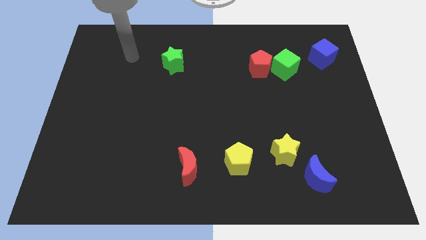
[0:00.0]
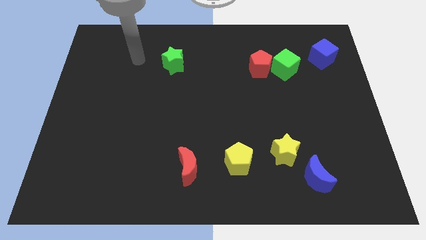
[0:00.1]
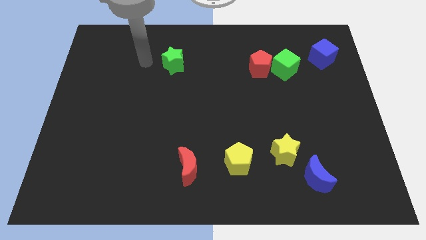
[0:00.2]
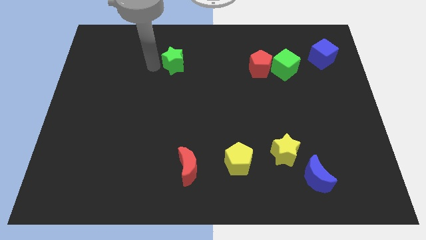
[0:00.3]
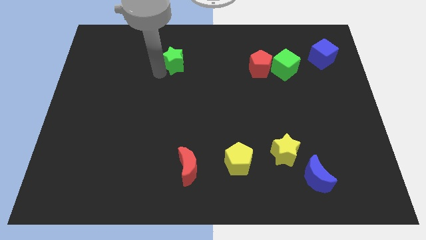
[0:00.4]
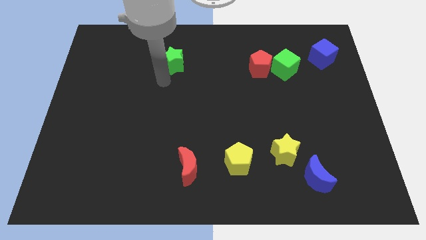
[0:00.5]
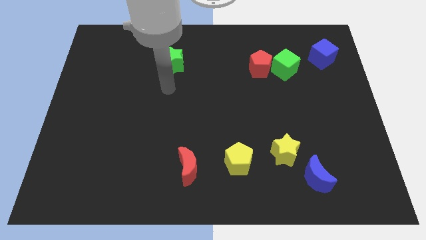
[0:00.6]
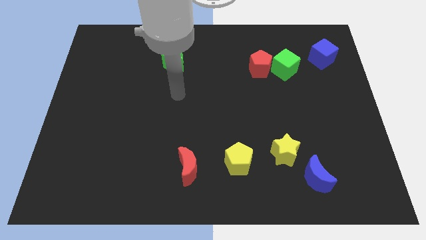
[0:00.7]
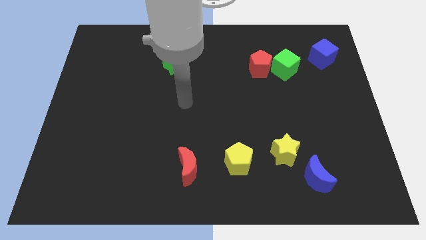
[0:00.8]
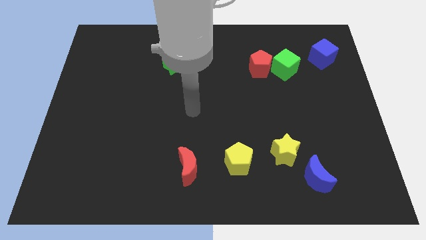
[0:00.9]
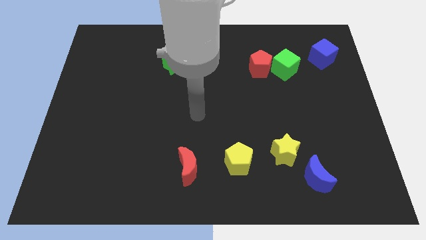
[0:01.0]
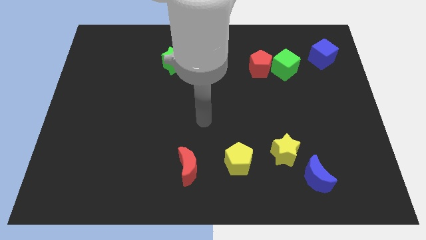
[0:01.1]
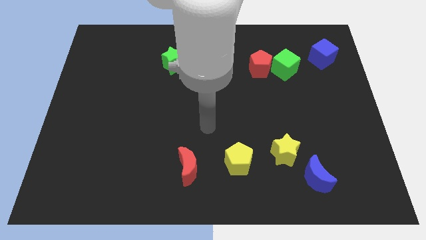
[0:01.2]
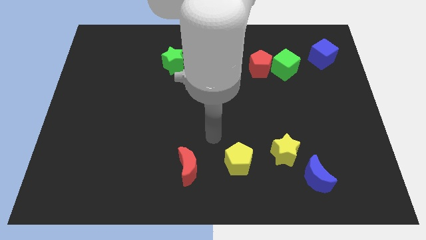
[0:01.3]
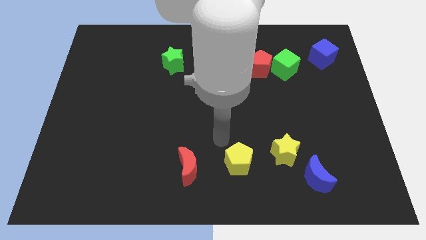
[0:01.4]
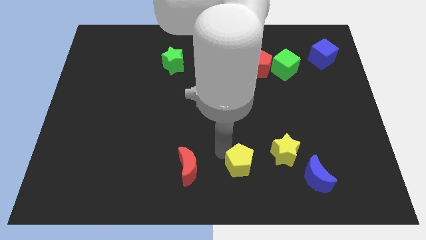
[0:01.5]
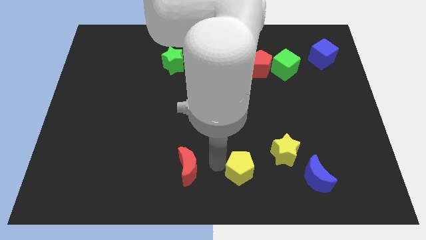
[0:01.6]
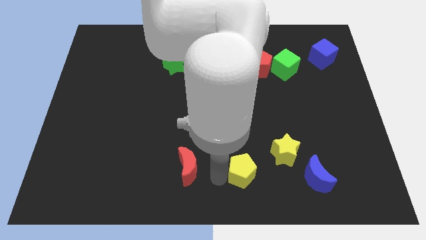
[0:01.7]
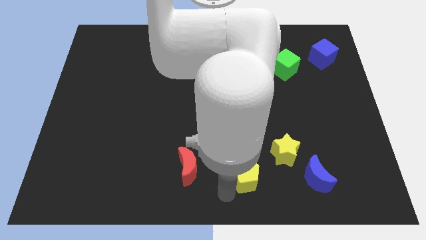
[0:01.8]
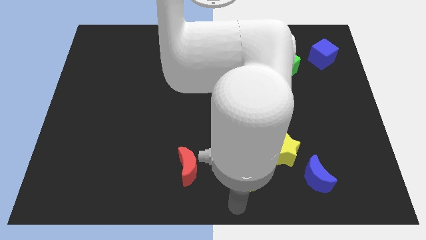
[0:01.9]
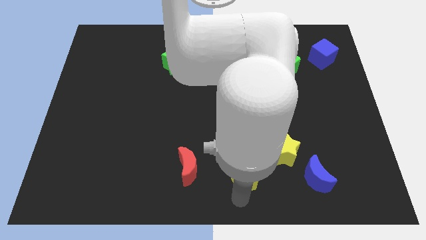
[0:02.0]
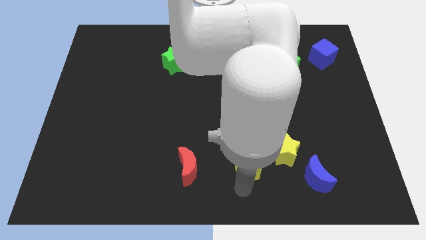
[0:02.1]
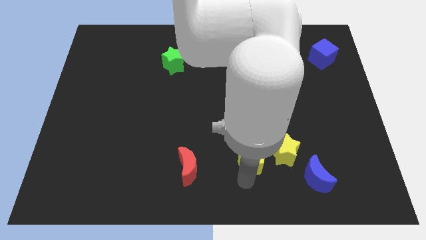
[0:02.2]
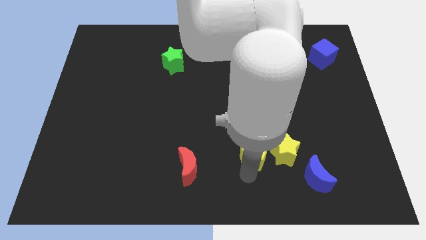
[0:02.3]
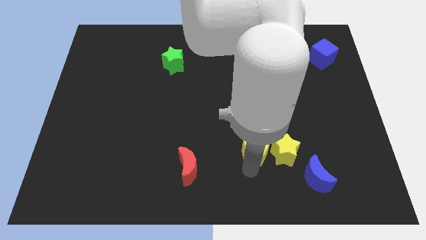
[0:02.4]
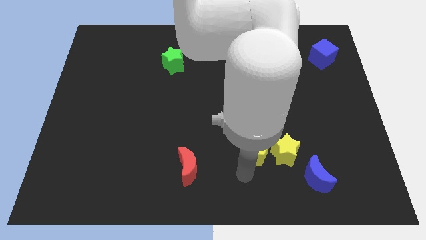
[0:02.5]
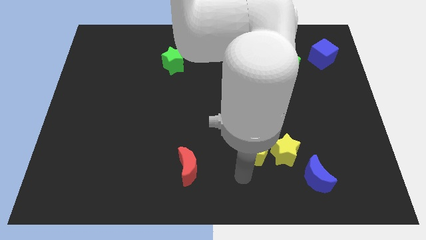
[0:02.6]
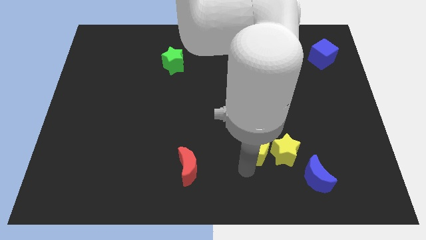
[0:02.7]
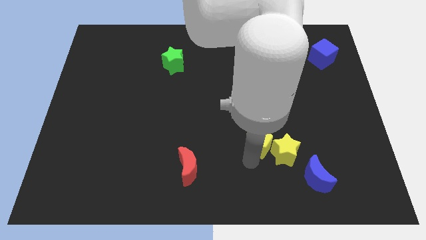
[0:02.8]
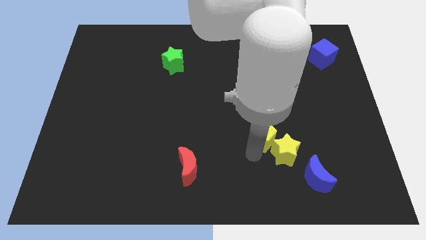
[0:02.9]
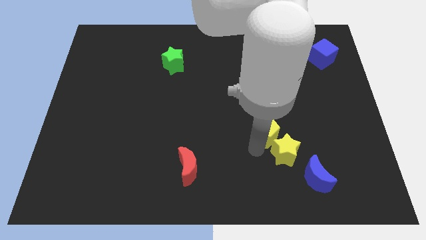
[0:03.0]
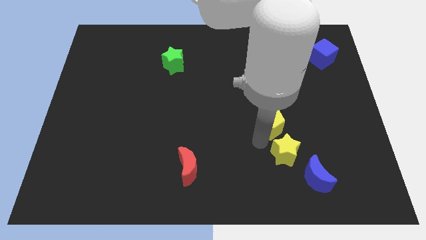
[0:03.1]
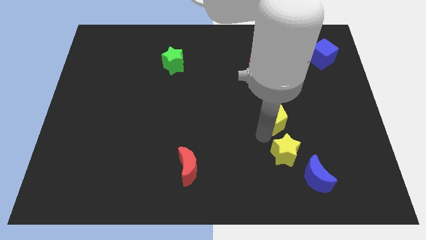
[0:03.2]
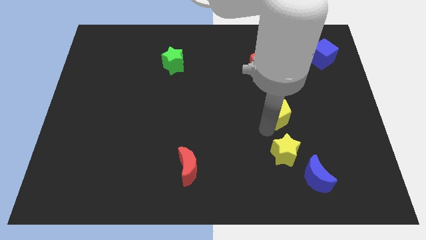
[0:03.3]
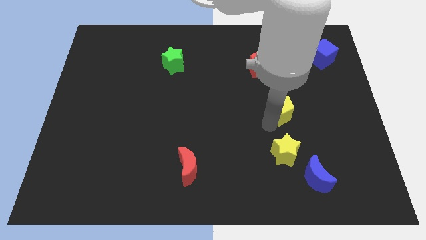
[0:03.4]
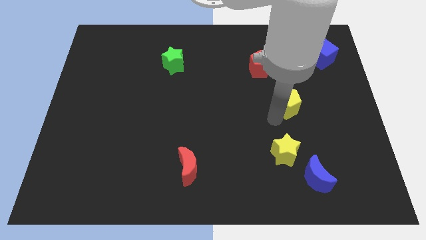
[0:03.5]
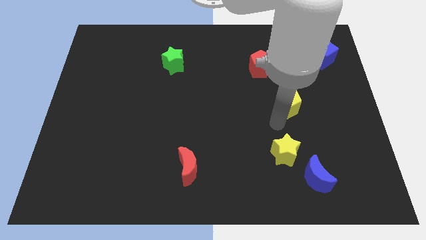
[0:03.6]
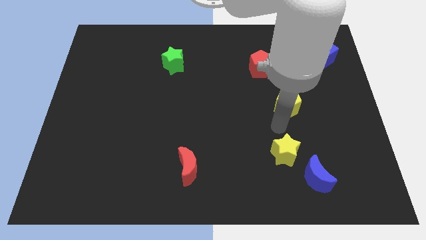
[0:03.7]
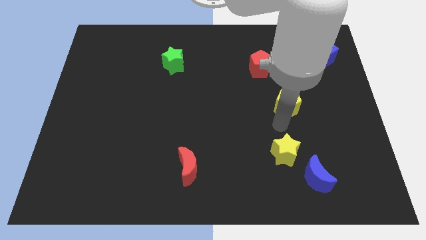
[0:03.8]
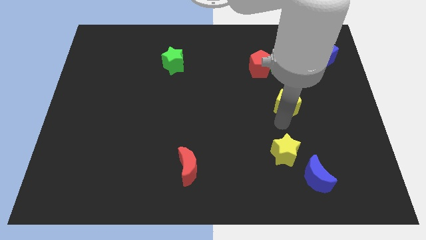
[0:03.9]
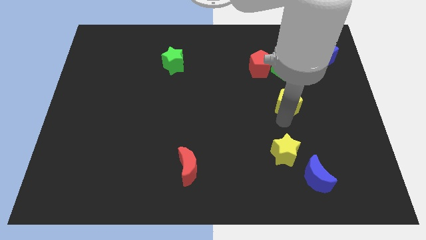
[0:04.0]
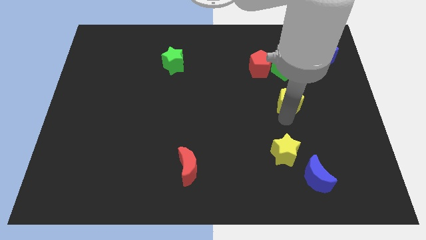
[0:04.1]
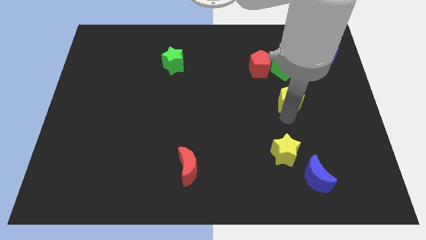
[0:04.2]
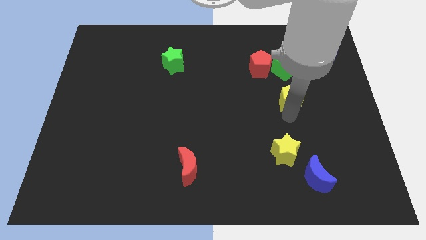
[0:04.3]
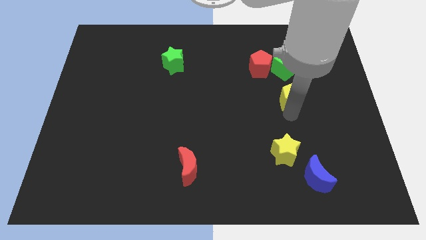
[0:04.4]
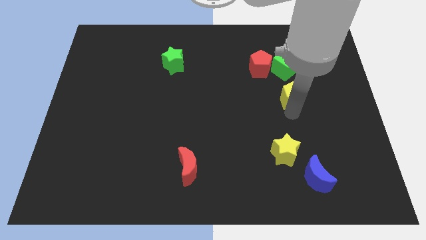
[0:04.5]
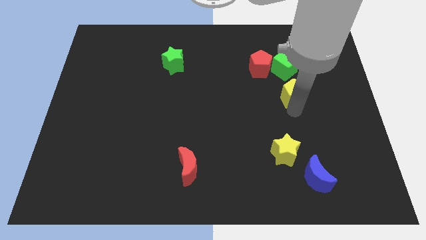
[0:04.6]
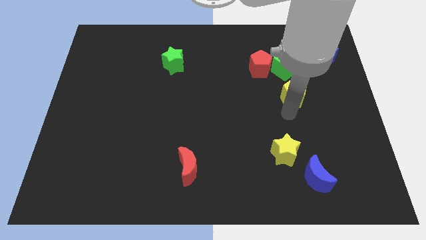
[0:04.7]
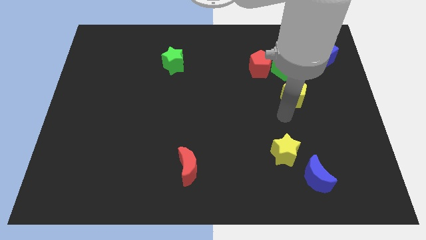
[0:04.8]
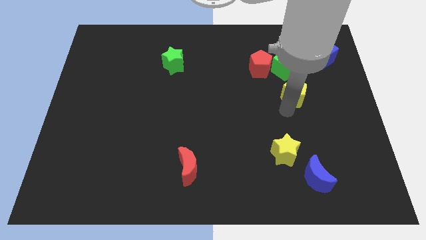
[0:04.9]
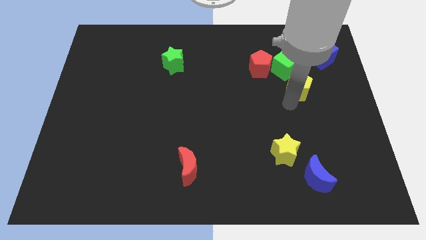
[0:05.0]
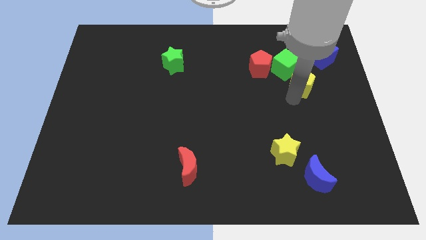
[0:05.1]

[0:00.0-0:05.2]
push the yellow pentagon to the bottom left side of the blue cube

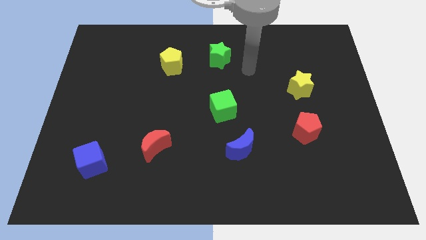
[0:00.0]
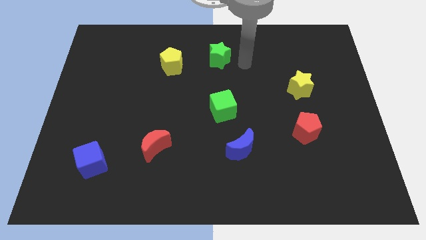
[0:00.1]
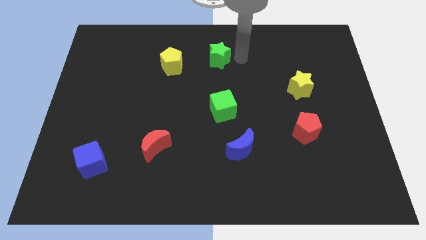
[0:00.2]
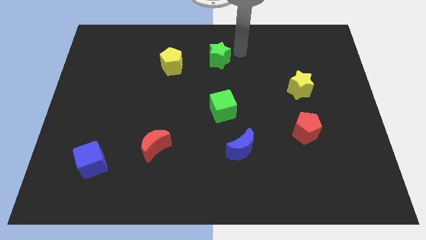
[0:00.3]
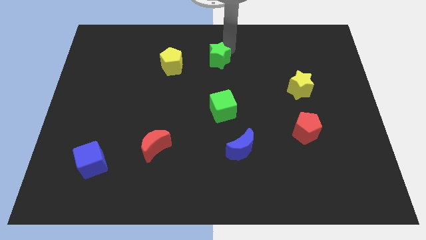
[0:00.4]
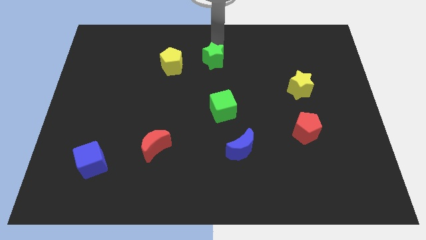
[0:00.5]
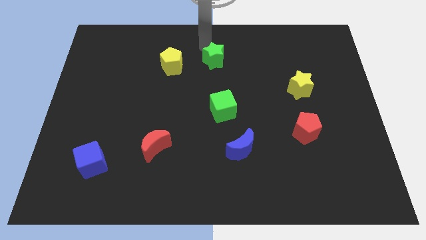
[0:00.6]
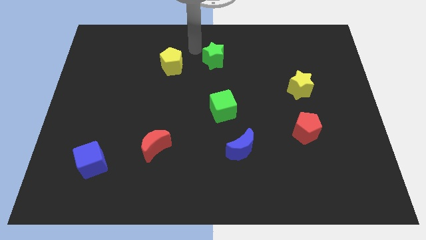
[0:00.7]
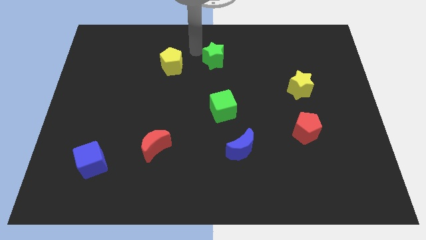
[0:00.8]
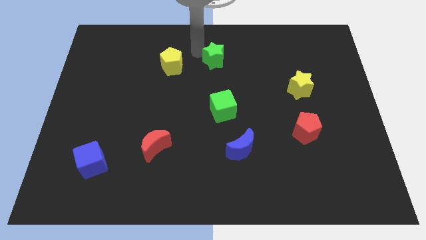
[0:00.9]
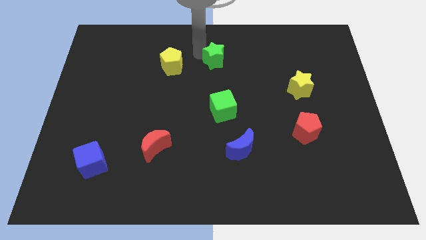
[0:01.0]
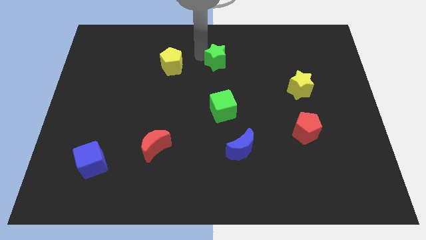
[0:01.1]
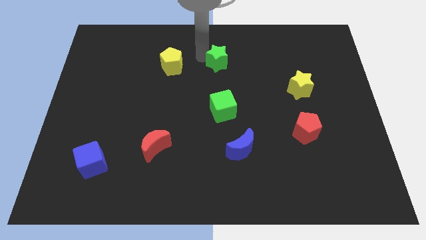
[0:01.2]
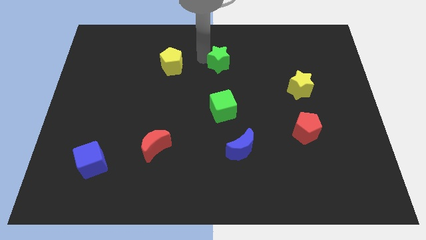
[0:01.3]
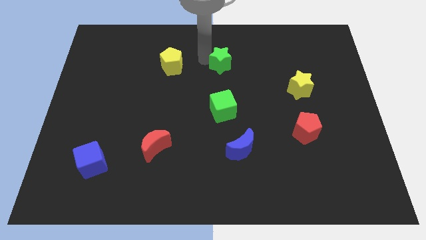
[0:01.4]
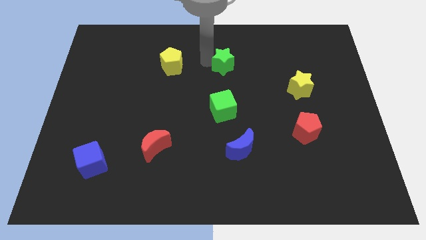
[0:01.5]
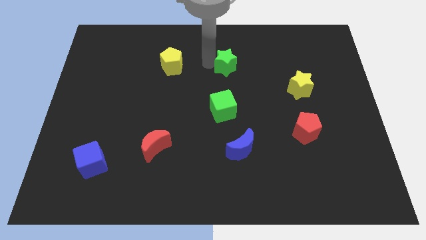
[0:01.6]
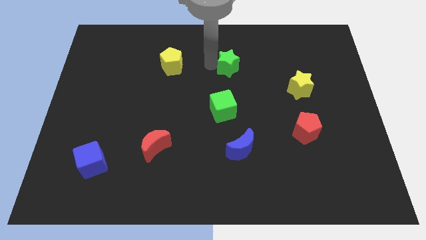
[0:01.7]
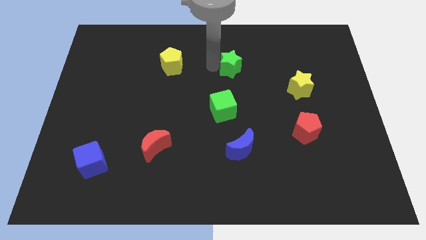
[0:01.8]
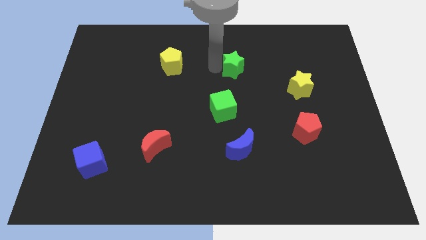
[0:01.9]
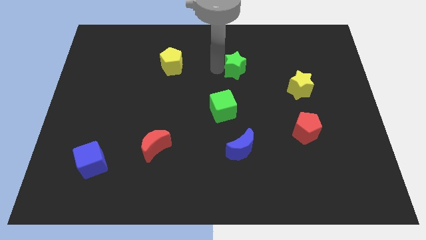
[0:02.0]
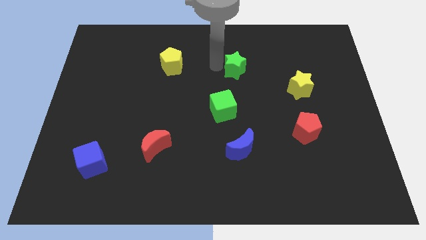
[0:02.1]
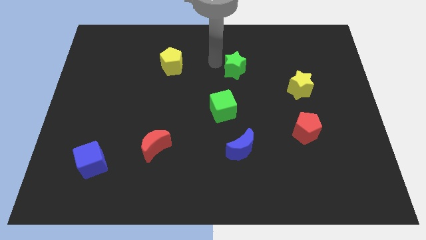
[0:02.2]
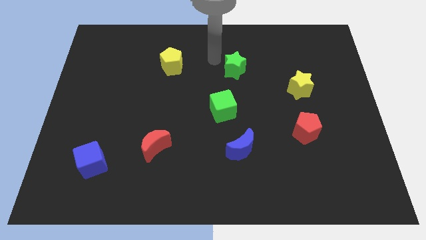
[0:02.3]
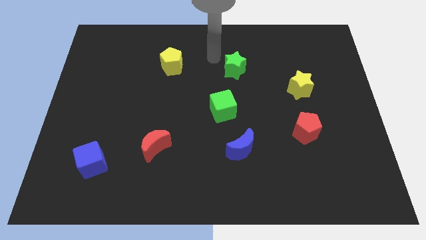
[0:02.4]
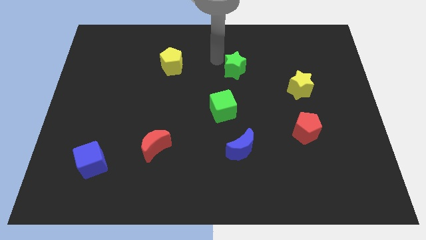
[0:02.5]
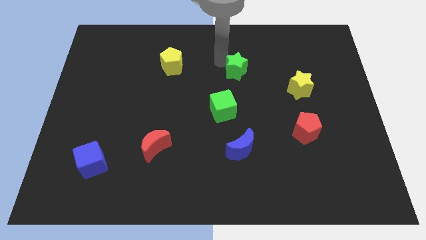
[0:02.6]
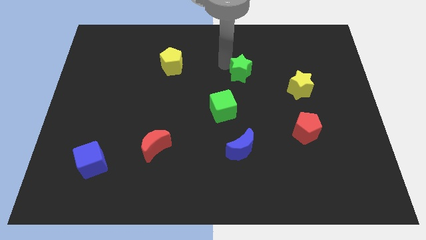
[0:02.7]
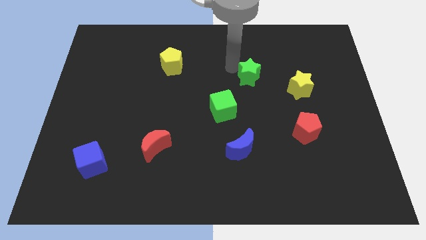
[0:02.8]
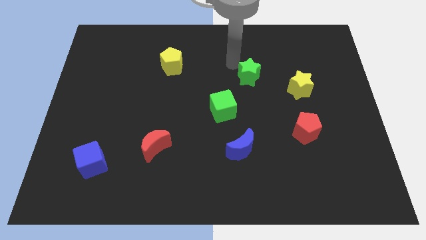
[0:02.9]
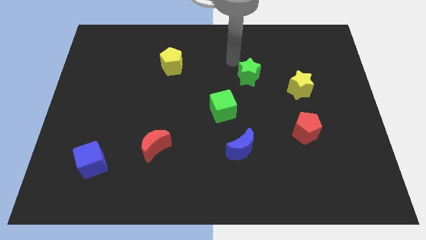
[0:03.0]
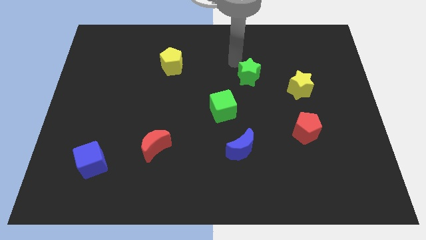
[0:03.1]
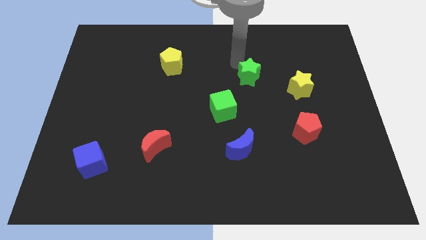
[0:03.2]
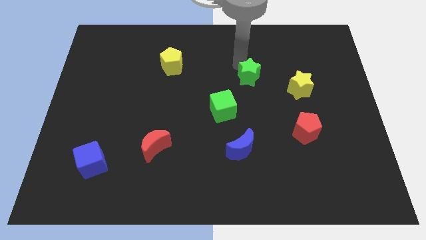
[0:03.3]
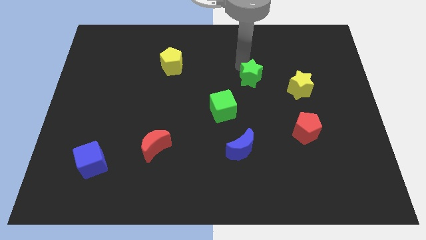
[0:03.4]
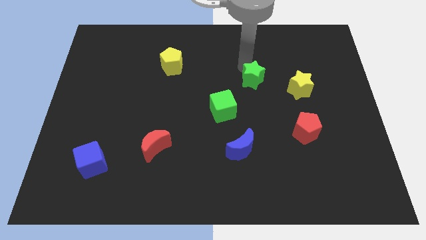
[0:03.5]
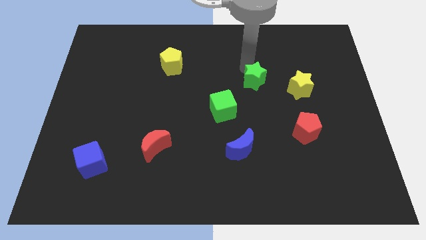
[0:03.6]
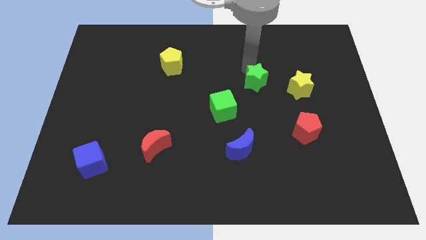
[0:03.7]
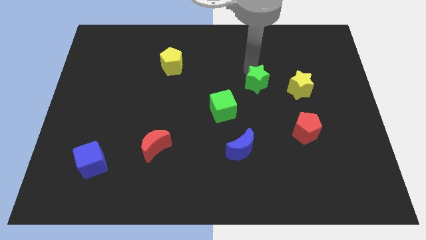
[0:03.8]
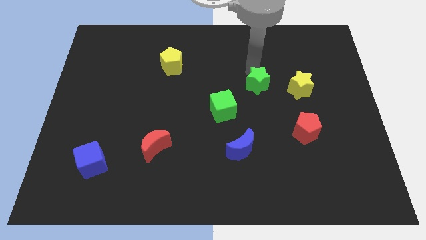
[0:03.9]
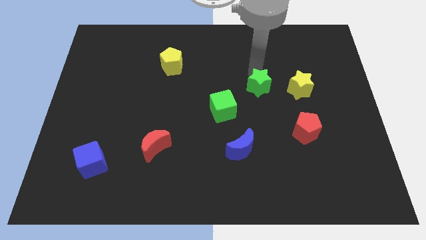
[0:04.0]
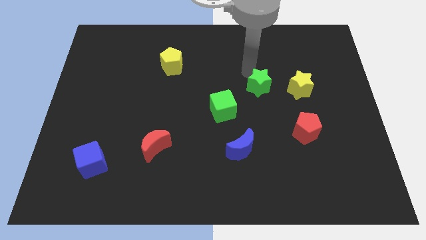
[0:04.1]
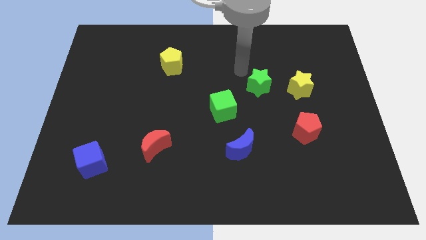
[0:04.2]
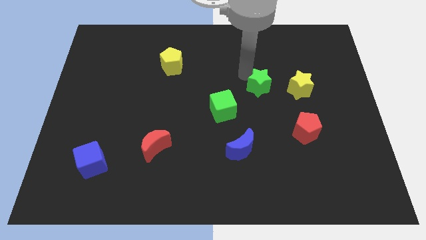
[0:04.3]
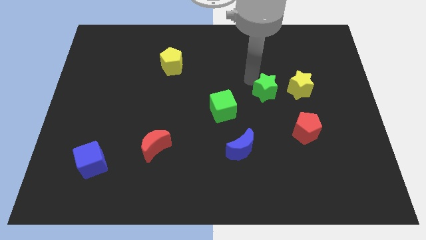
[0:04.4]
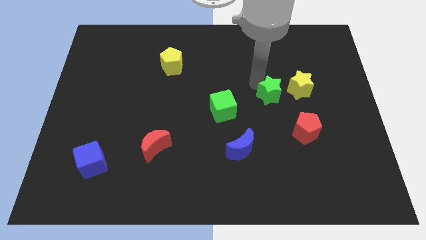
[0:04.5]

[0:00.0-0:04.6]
put the green star diagonally down and to the left of the yellow star
